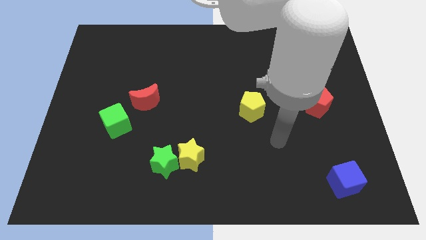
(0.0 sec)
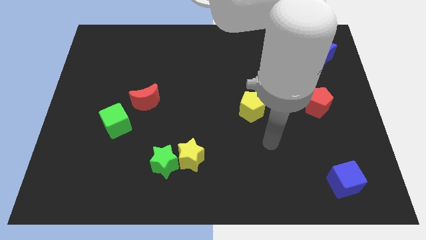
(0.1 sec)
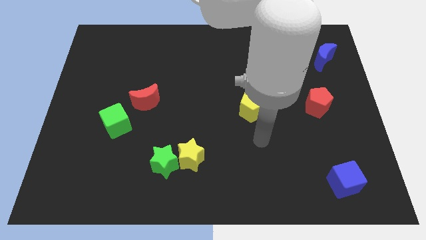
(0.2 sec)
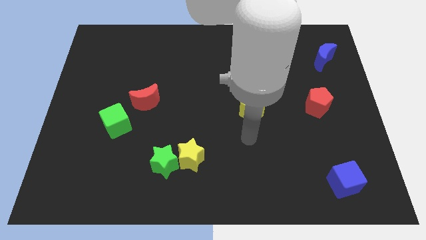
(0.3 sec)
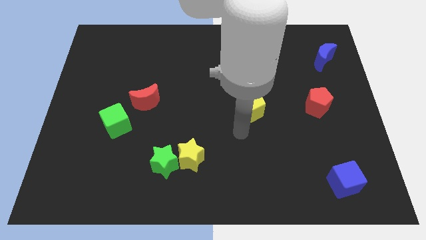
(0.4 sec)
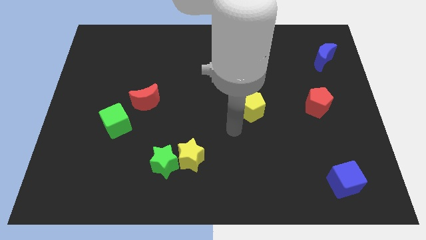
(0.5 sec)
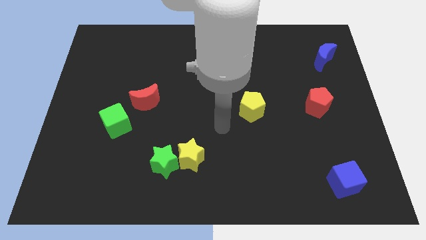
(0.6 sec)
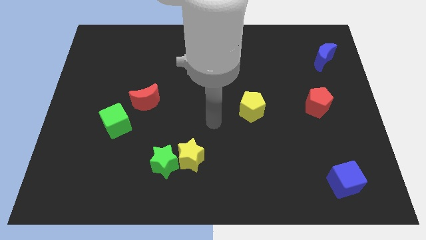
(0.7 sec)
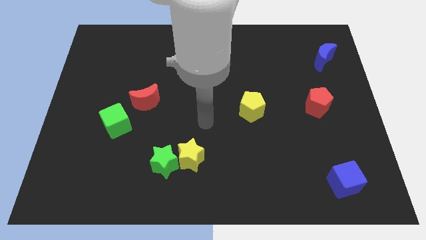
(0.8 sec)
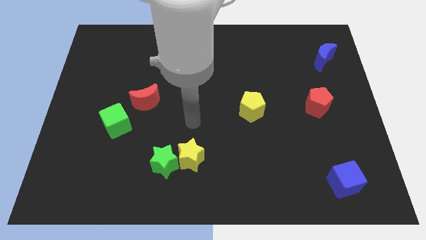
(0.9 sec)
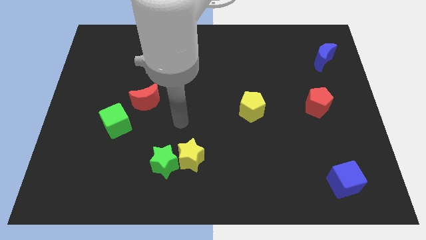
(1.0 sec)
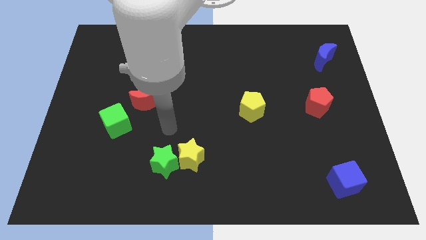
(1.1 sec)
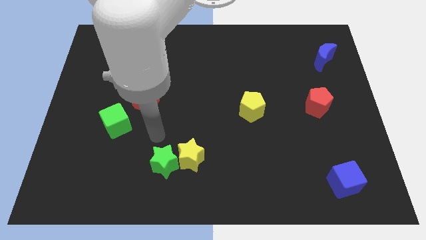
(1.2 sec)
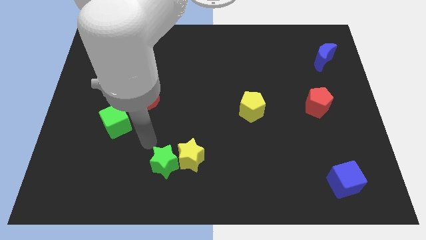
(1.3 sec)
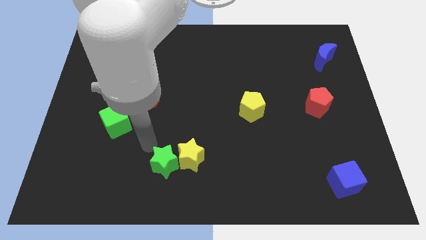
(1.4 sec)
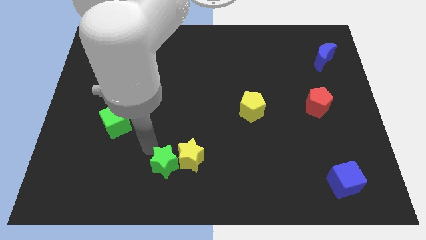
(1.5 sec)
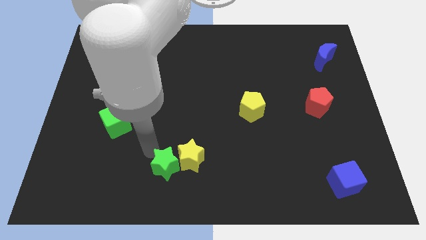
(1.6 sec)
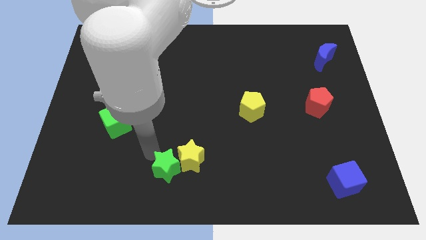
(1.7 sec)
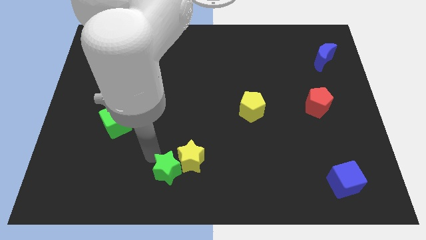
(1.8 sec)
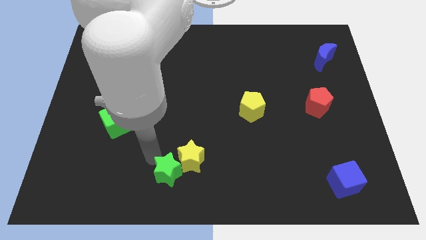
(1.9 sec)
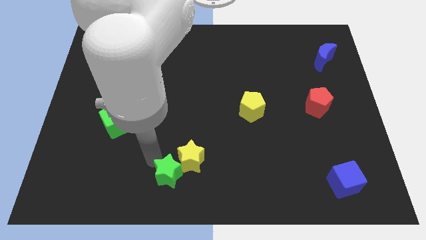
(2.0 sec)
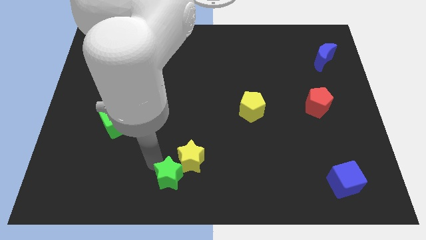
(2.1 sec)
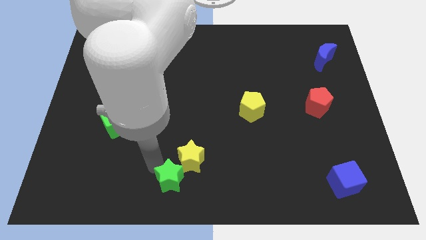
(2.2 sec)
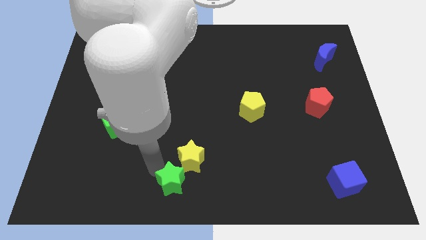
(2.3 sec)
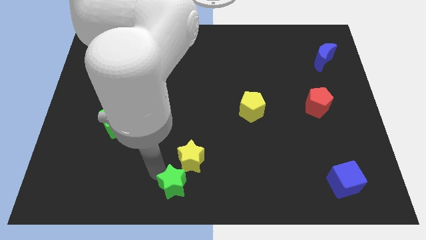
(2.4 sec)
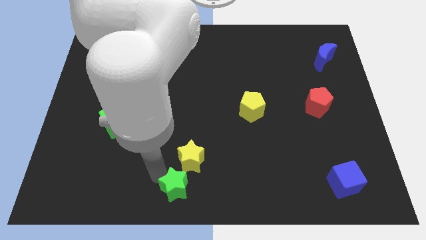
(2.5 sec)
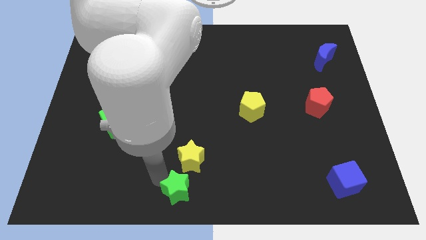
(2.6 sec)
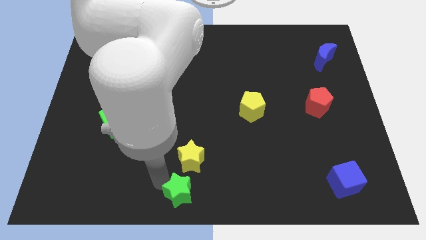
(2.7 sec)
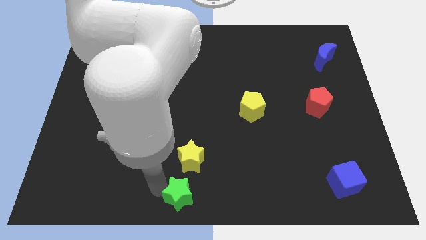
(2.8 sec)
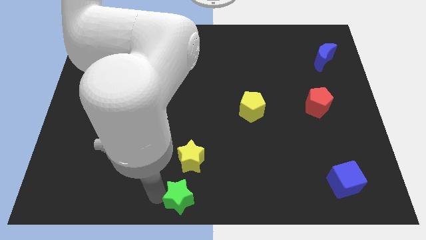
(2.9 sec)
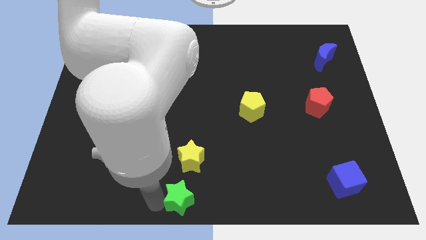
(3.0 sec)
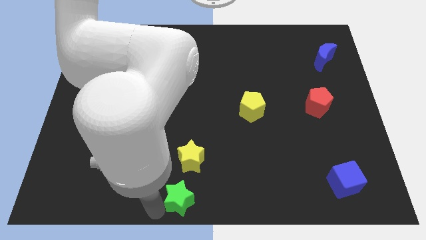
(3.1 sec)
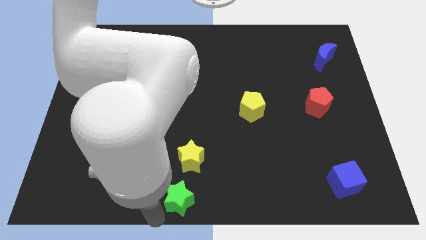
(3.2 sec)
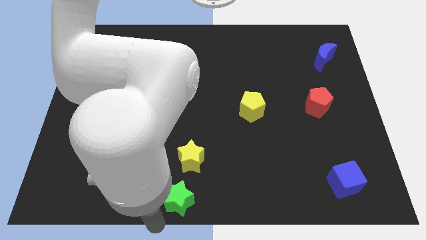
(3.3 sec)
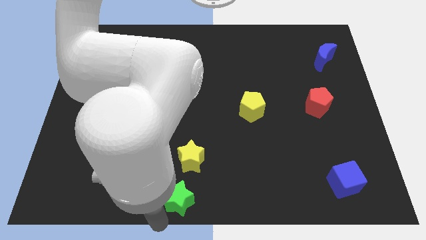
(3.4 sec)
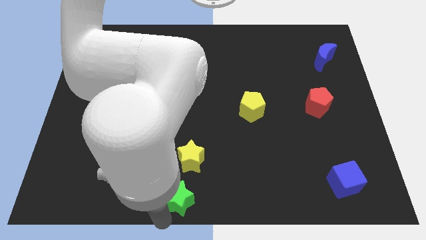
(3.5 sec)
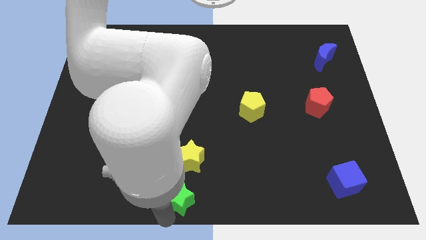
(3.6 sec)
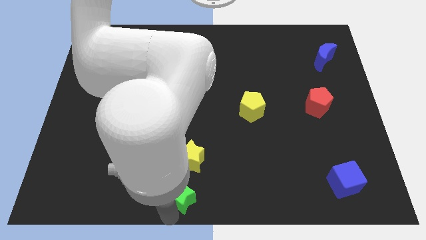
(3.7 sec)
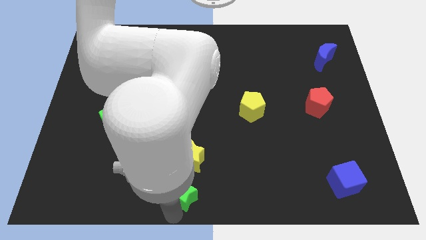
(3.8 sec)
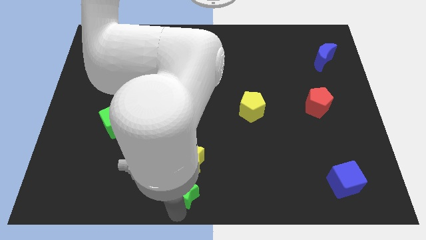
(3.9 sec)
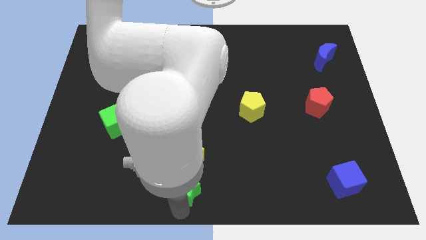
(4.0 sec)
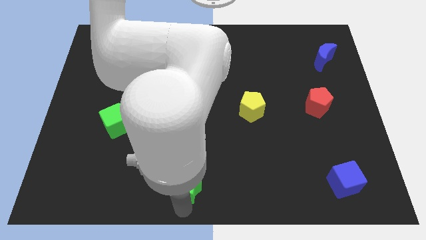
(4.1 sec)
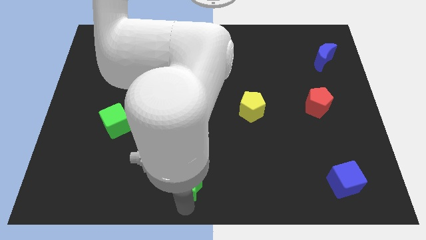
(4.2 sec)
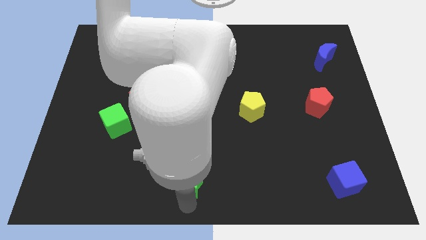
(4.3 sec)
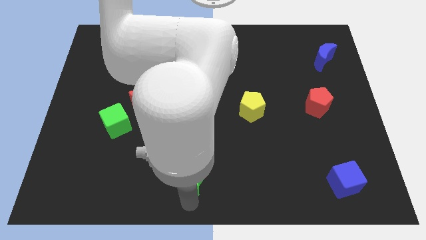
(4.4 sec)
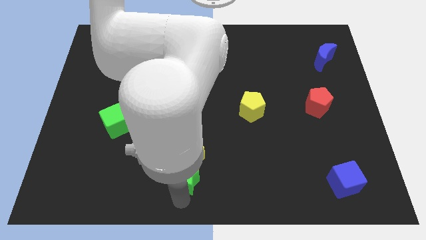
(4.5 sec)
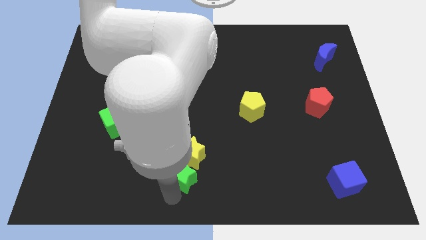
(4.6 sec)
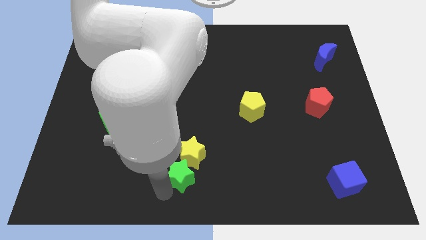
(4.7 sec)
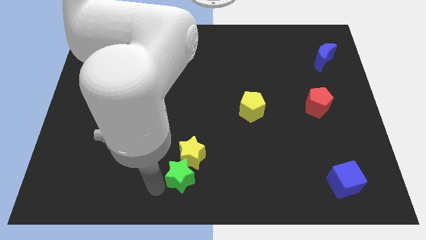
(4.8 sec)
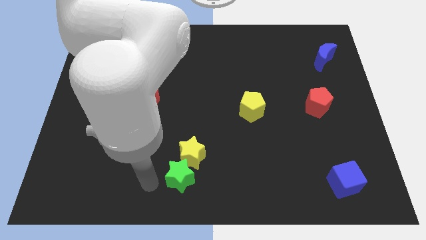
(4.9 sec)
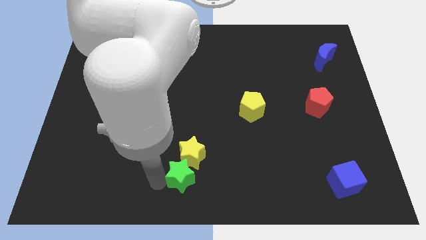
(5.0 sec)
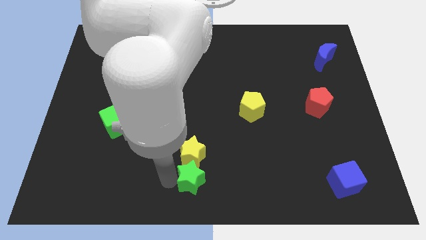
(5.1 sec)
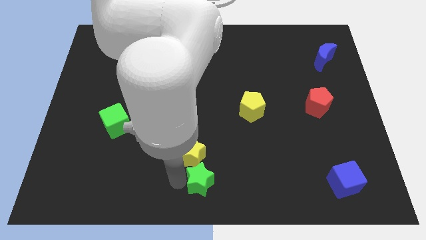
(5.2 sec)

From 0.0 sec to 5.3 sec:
slide the green star a bit to the right

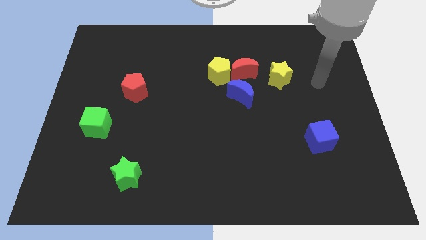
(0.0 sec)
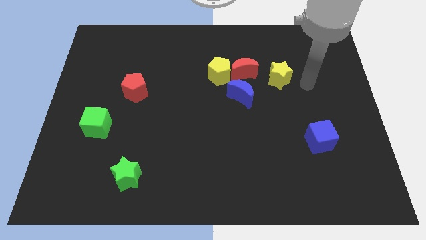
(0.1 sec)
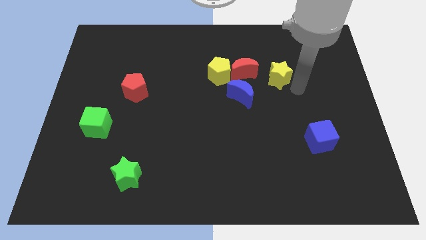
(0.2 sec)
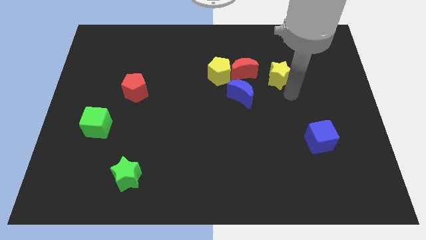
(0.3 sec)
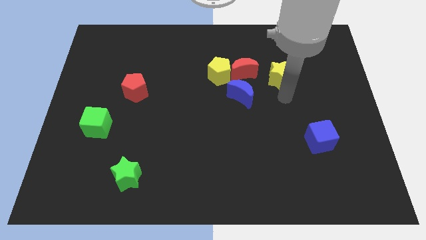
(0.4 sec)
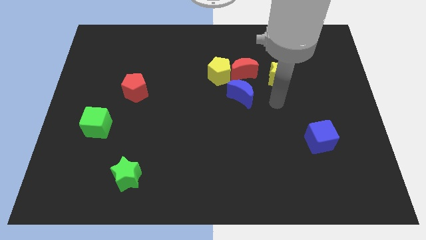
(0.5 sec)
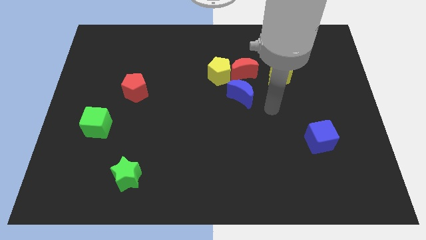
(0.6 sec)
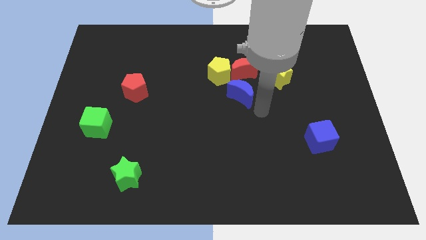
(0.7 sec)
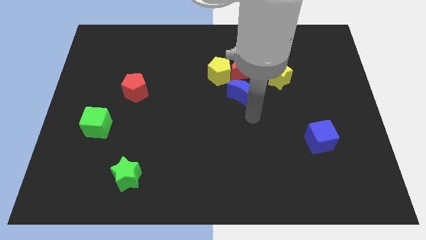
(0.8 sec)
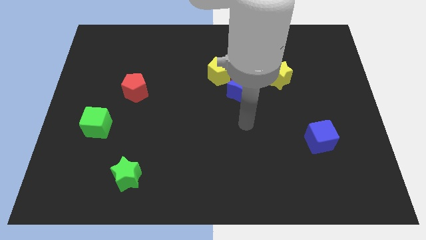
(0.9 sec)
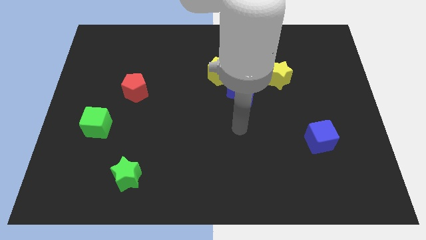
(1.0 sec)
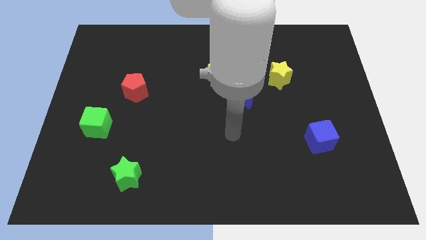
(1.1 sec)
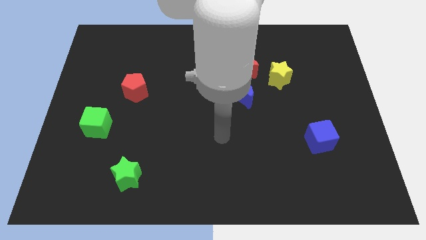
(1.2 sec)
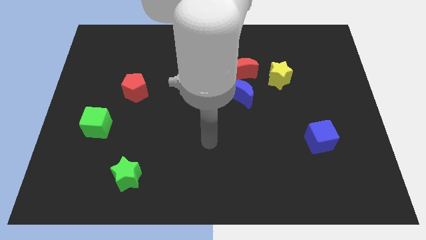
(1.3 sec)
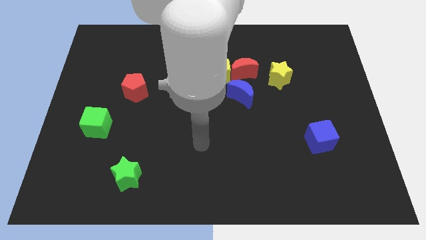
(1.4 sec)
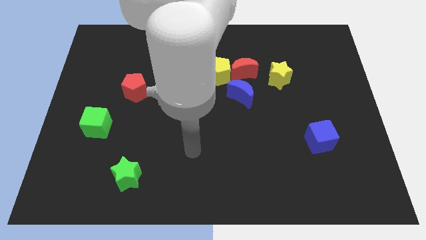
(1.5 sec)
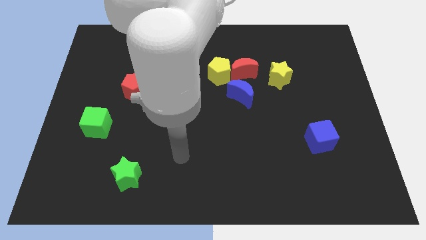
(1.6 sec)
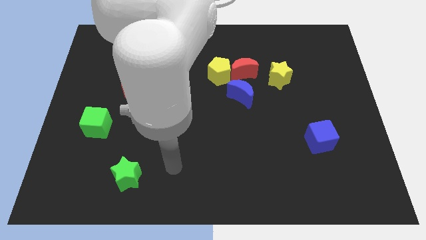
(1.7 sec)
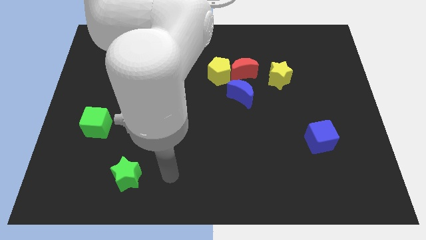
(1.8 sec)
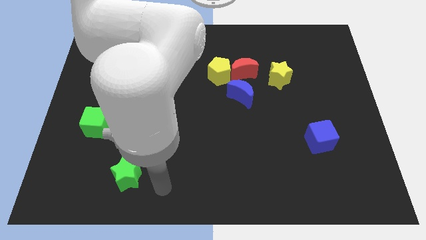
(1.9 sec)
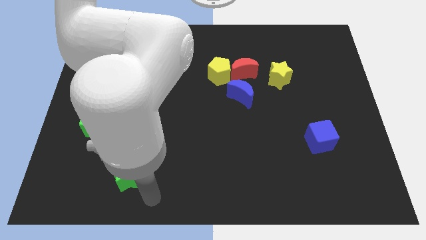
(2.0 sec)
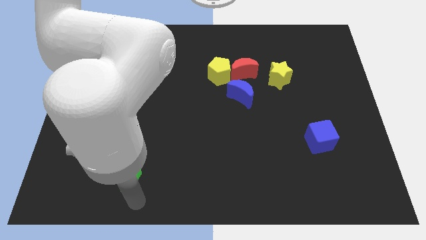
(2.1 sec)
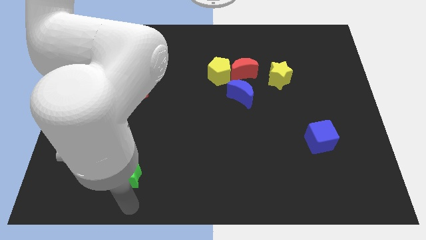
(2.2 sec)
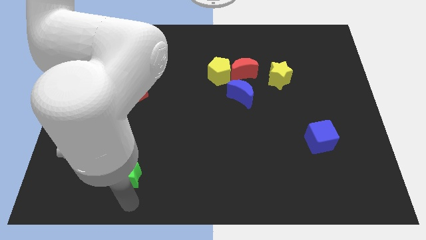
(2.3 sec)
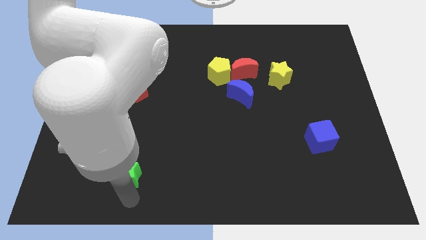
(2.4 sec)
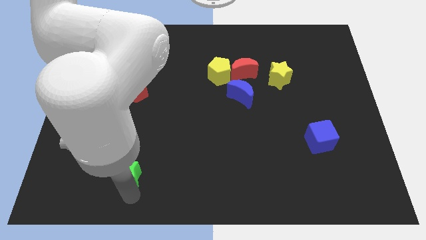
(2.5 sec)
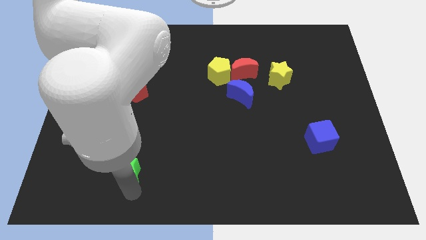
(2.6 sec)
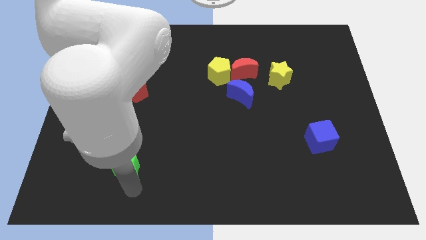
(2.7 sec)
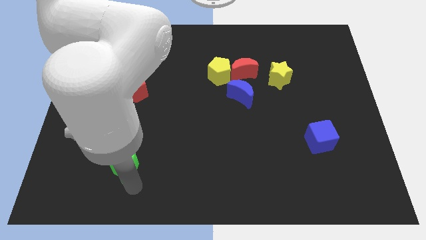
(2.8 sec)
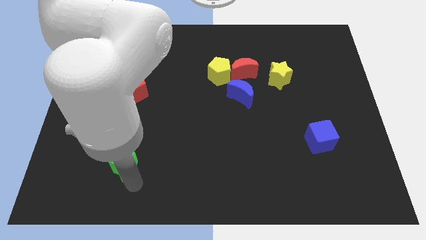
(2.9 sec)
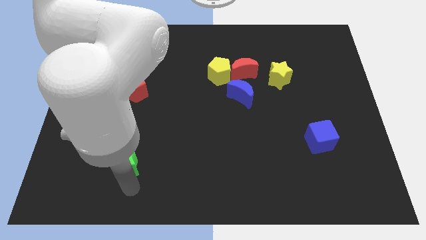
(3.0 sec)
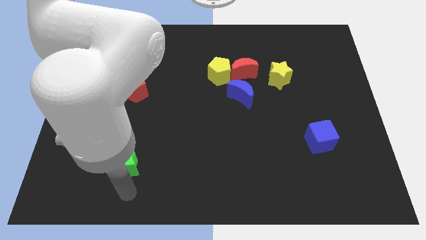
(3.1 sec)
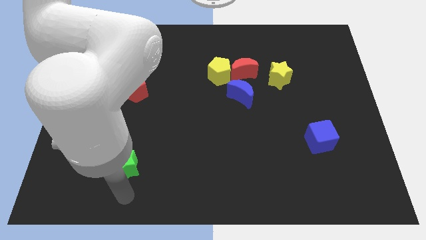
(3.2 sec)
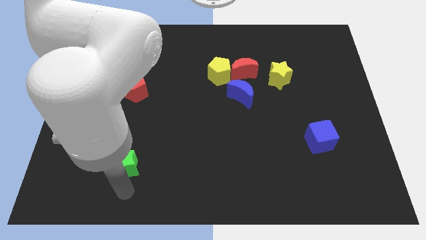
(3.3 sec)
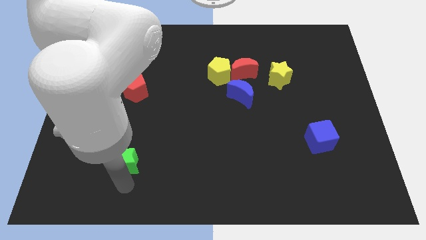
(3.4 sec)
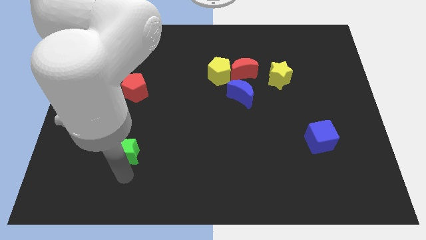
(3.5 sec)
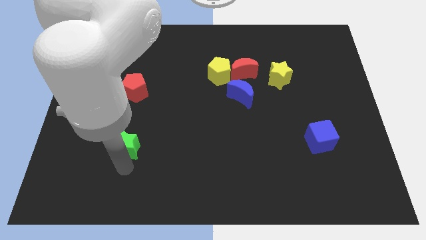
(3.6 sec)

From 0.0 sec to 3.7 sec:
move the green star a little up
